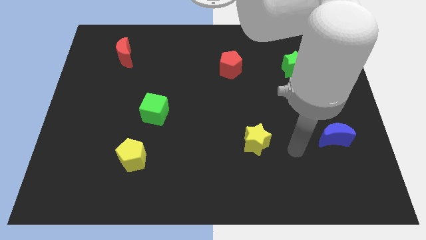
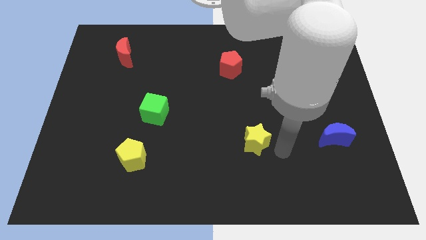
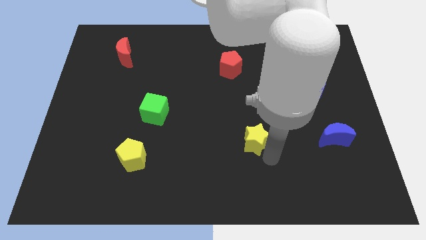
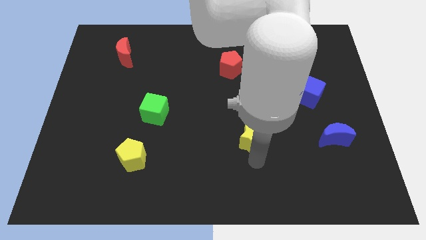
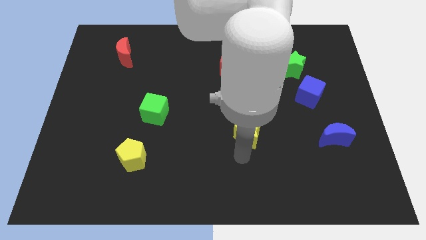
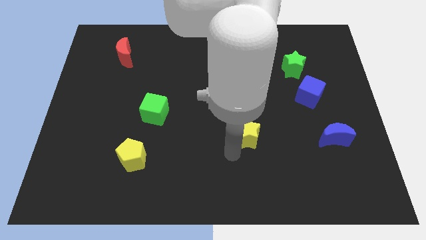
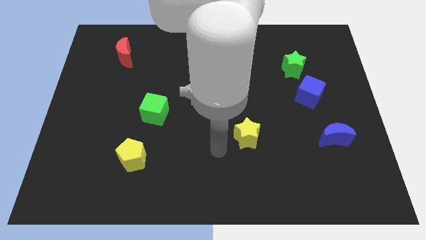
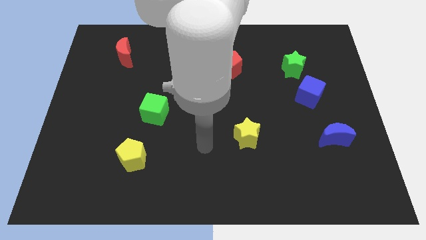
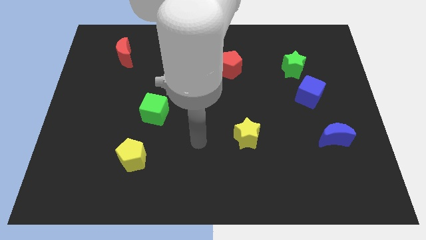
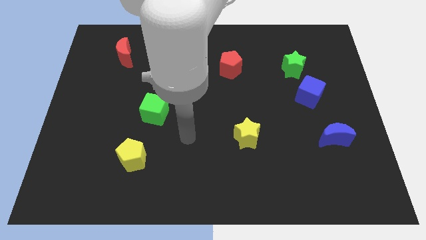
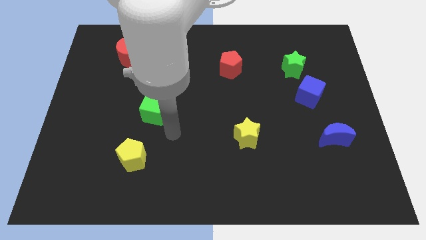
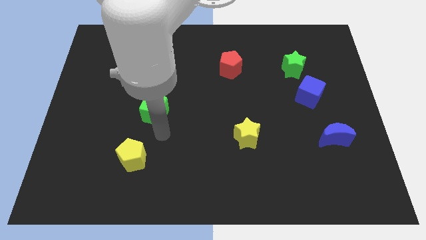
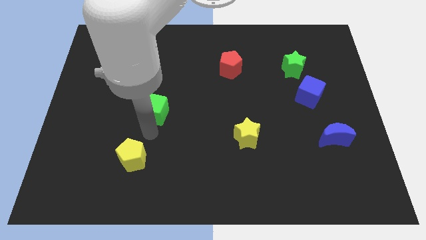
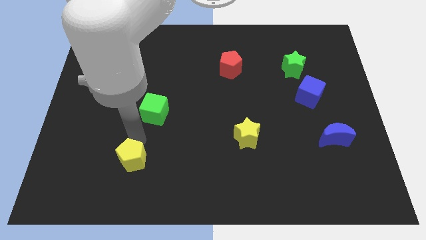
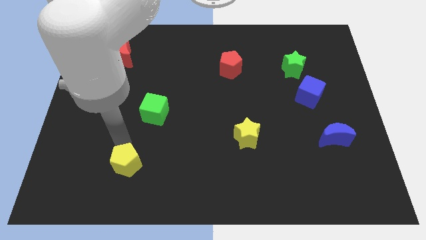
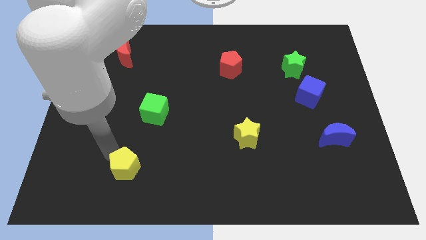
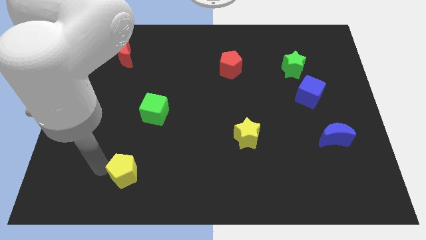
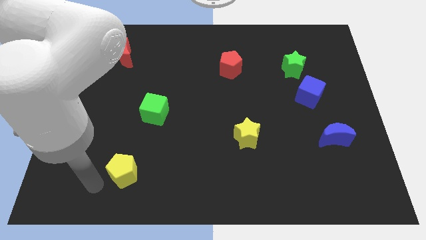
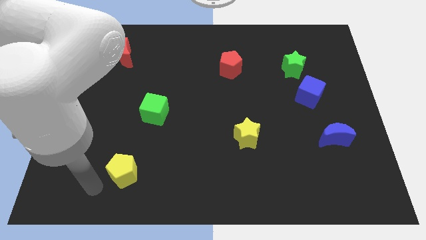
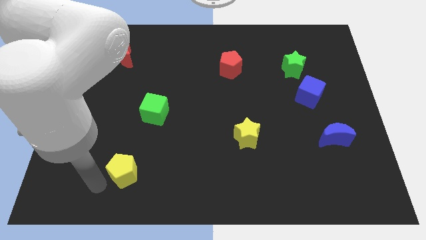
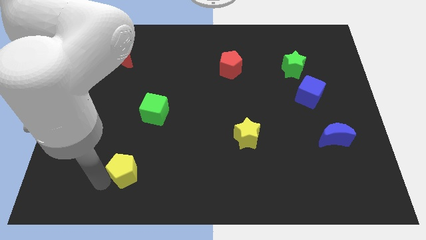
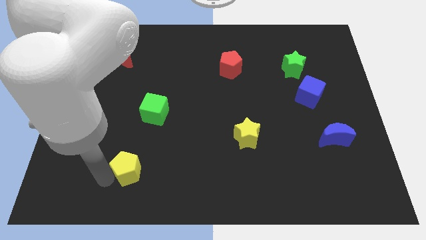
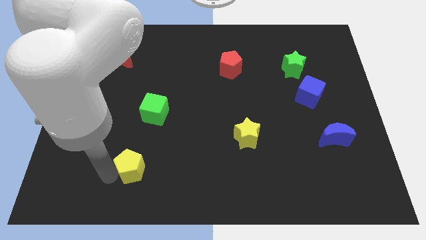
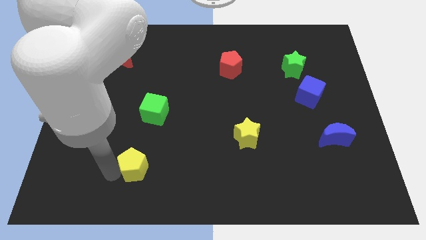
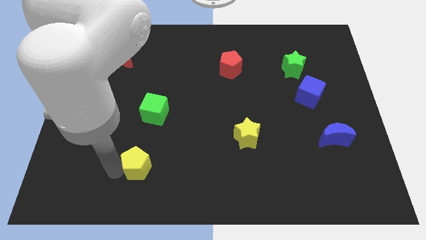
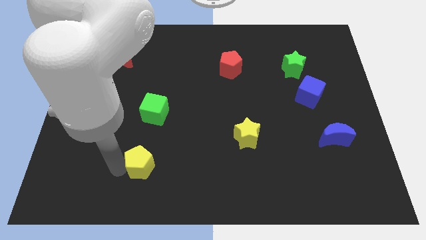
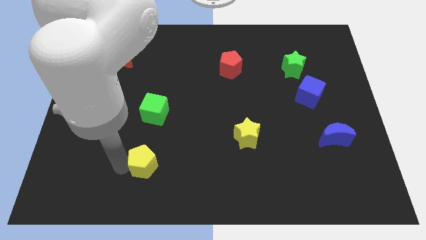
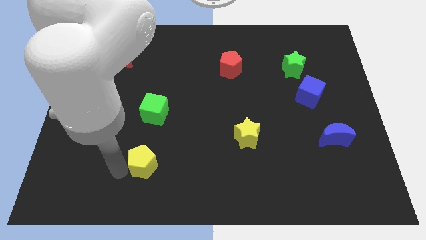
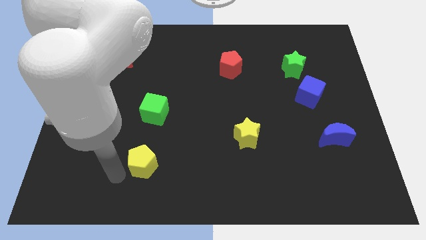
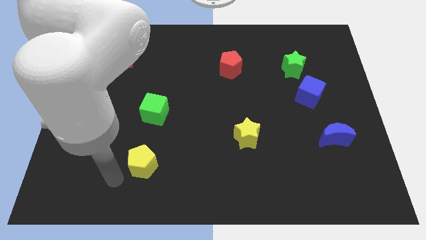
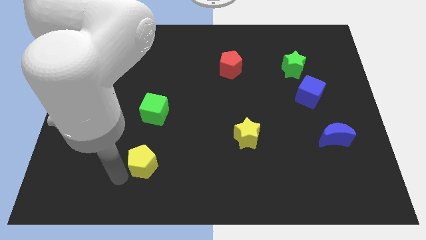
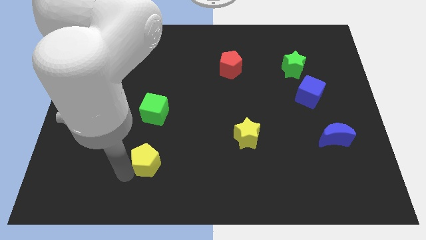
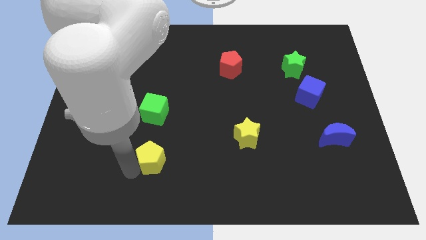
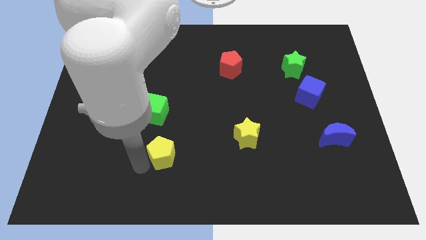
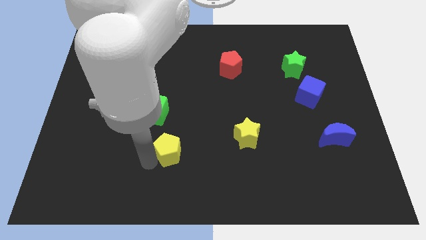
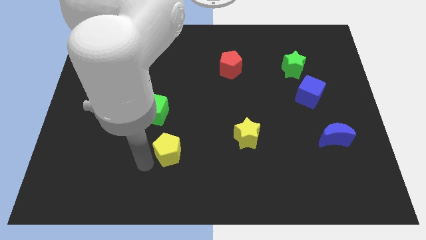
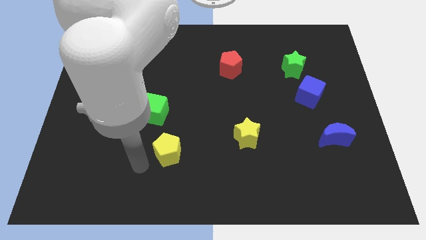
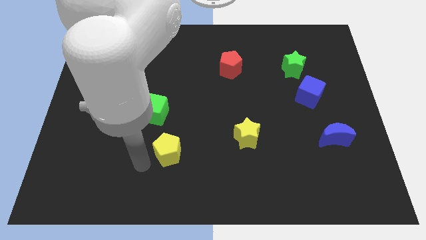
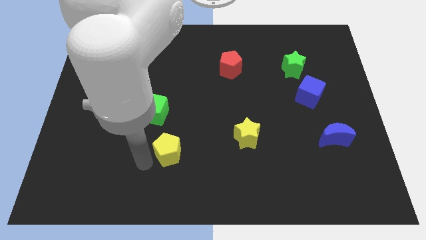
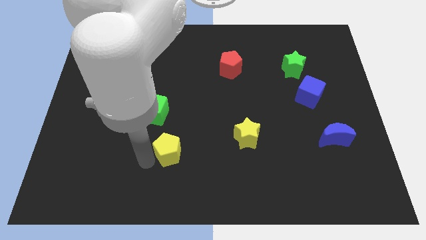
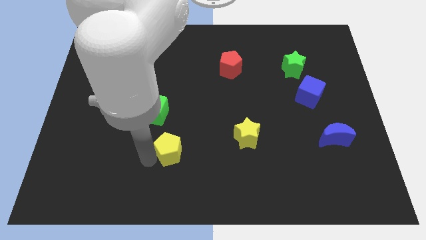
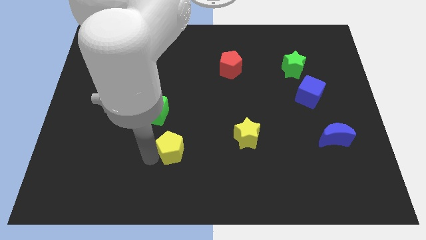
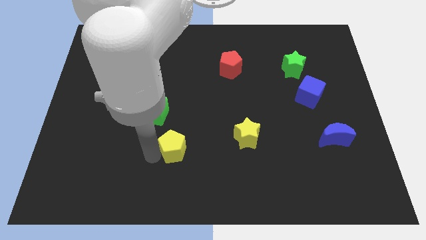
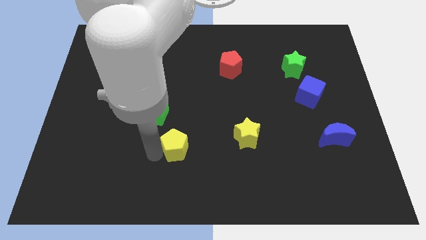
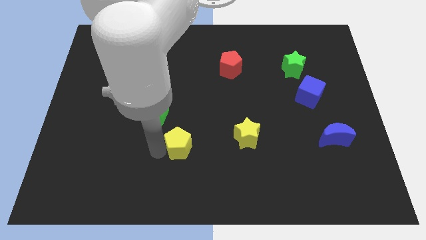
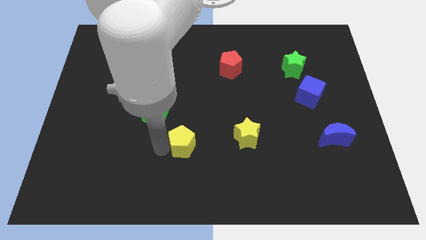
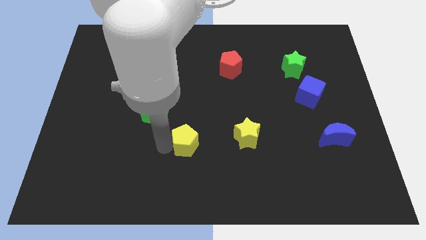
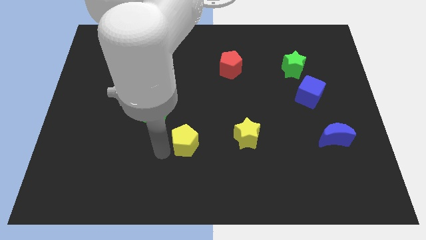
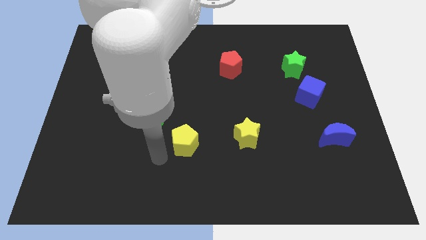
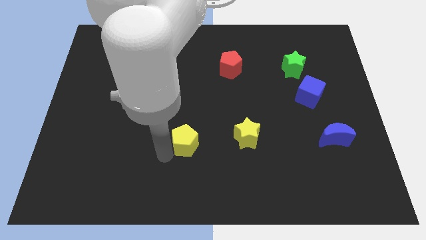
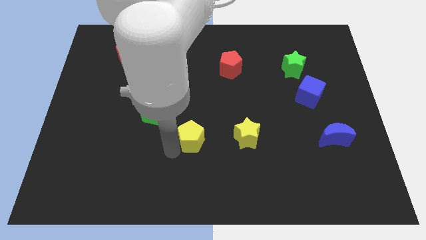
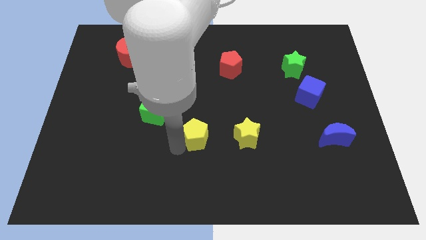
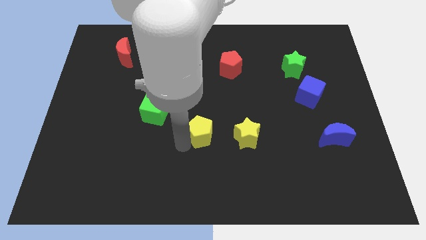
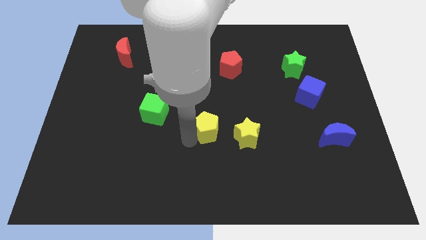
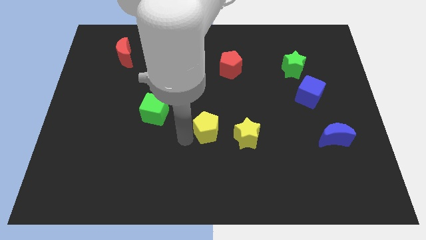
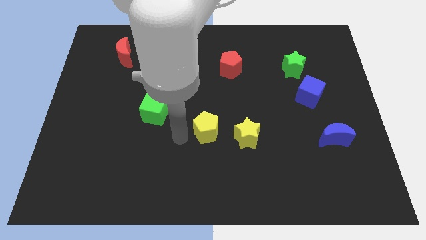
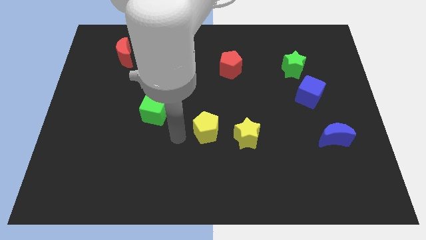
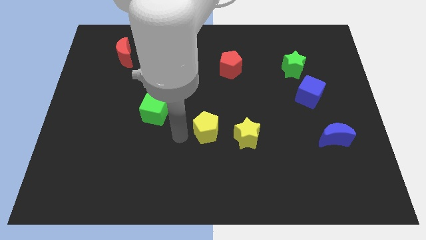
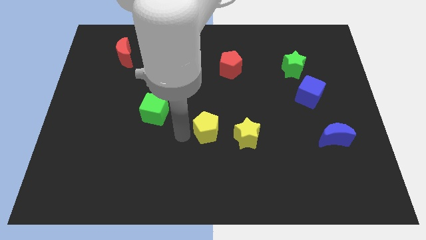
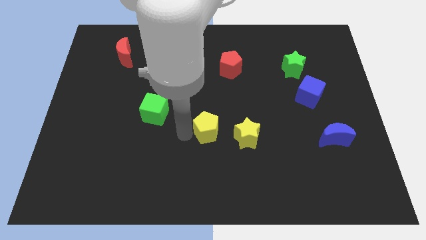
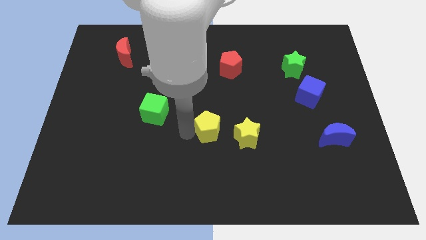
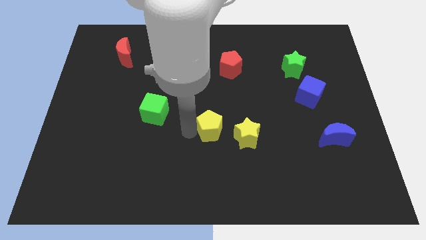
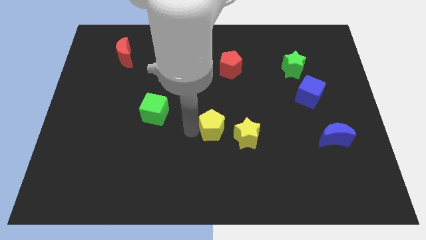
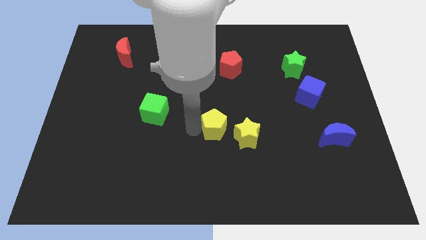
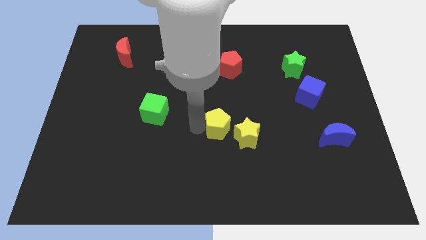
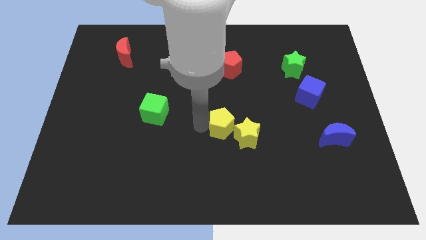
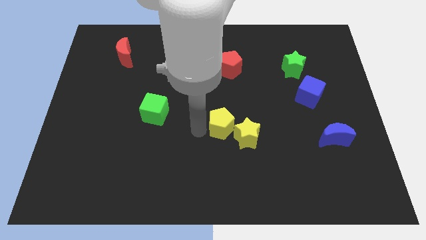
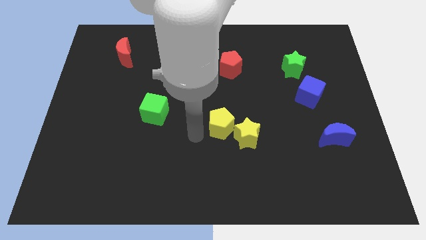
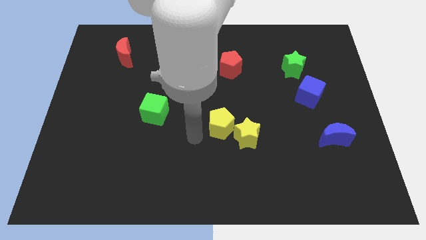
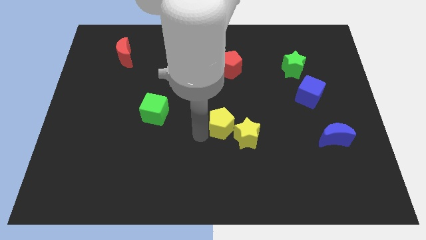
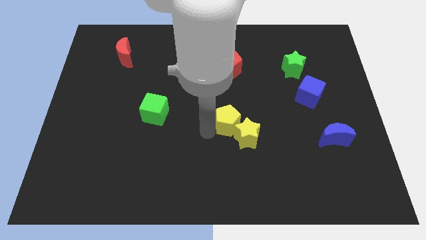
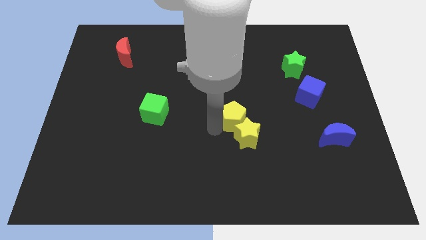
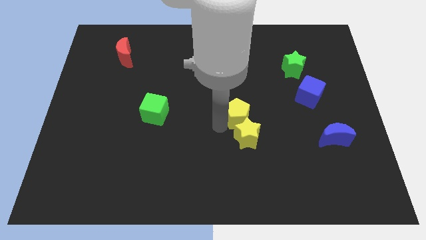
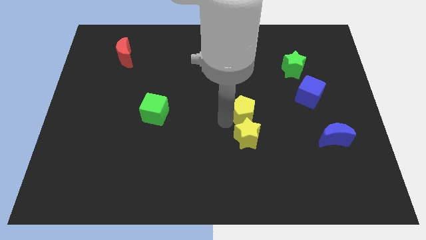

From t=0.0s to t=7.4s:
slide the yellow pentagon to the top right side of the yellow star

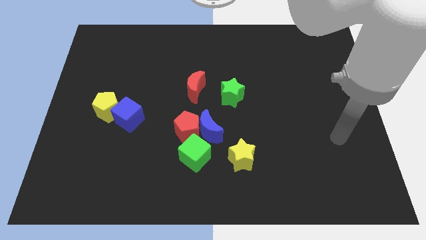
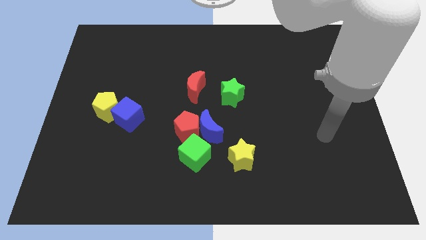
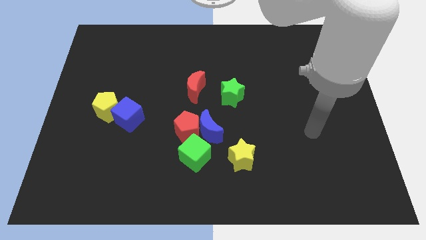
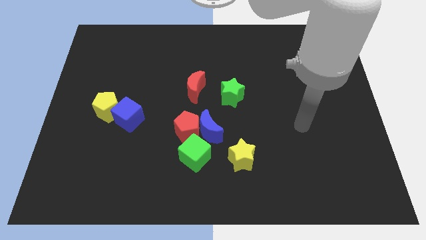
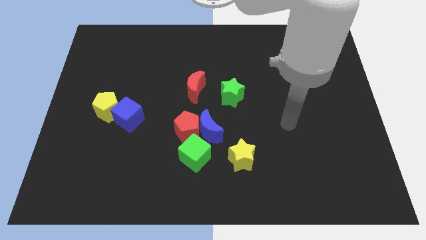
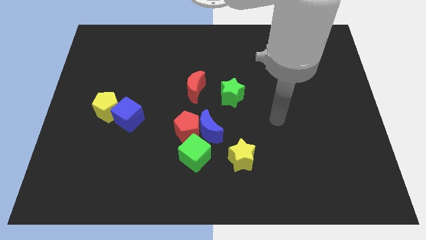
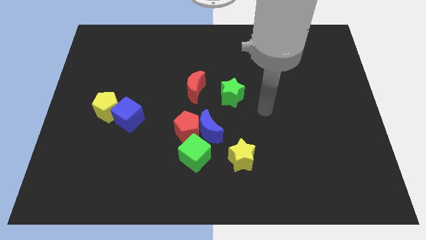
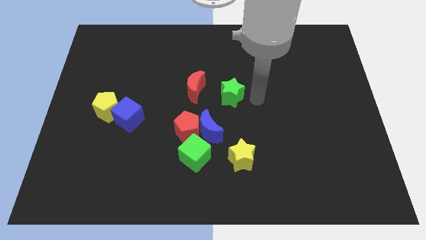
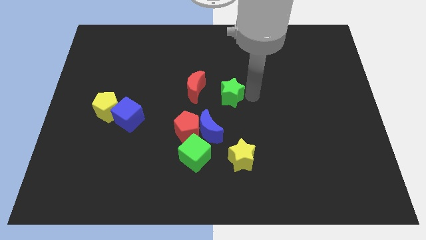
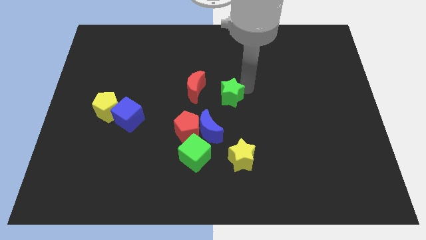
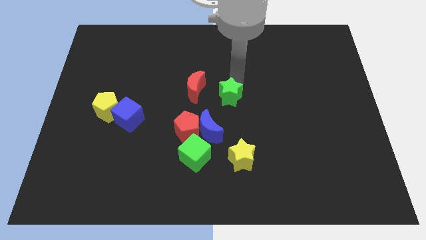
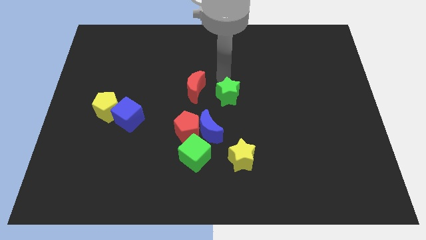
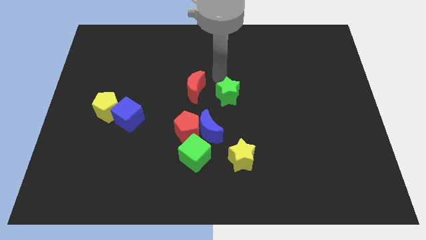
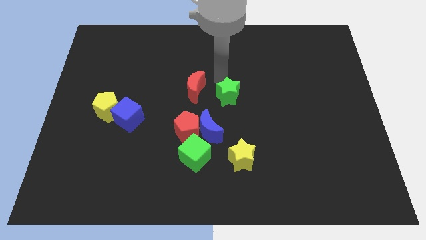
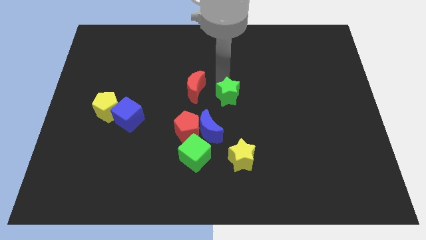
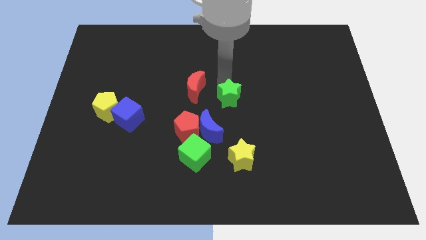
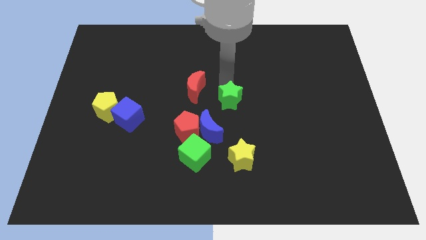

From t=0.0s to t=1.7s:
push the green star above the yellow star
